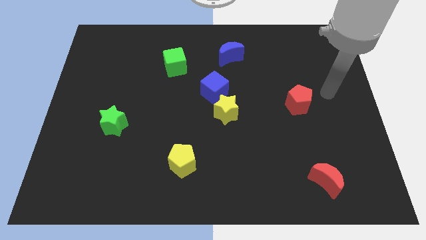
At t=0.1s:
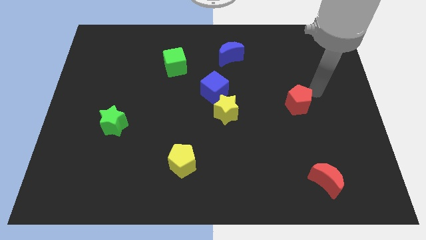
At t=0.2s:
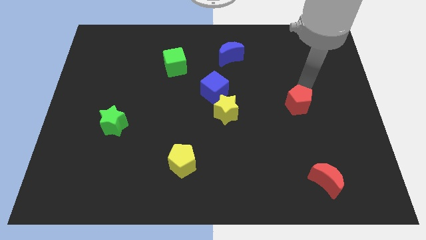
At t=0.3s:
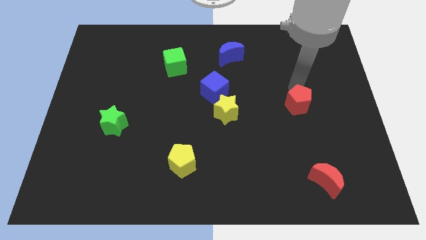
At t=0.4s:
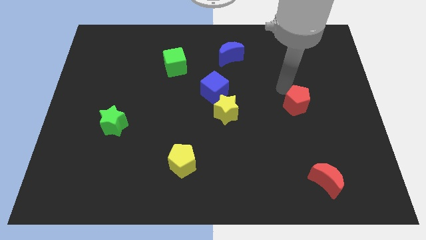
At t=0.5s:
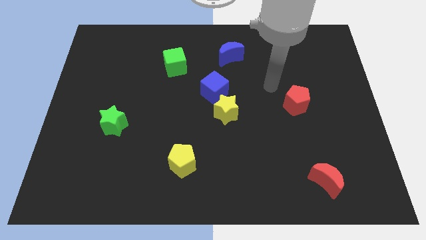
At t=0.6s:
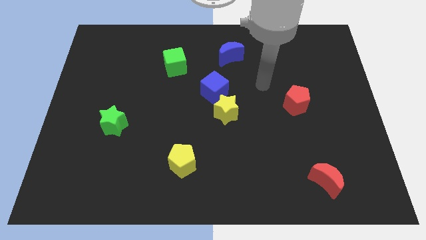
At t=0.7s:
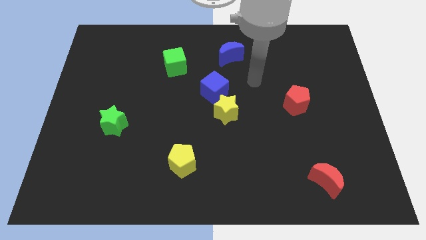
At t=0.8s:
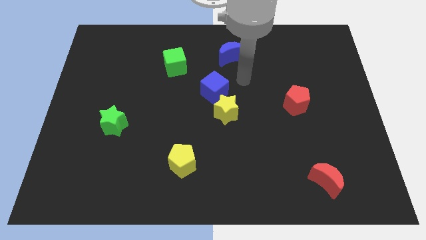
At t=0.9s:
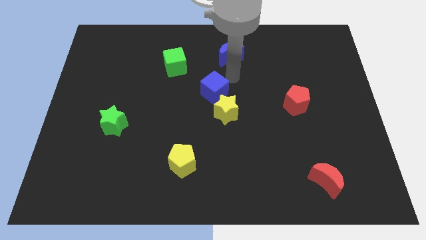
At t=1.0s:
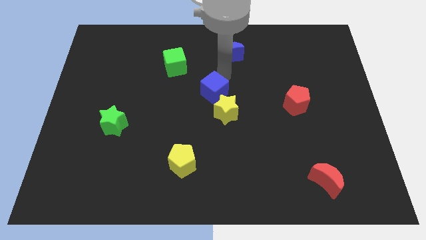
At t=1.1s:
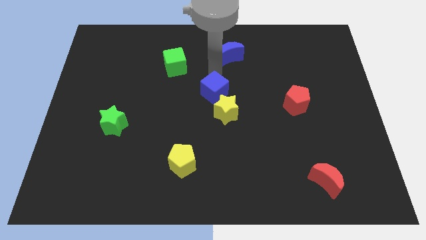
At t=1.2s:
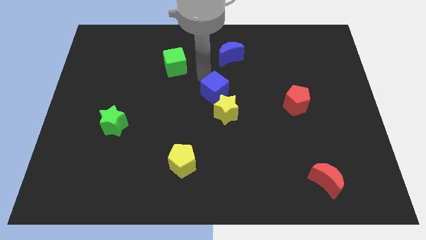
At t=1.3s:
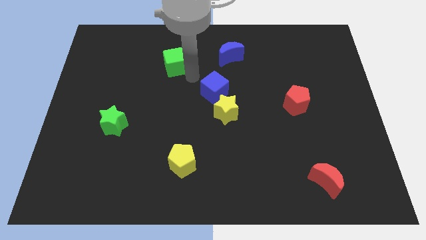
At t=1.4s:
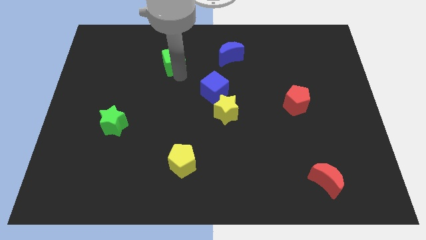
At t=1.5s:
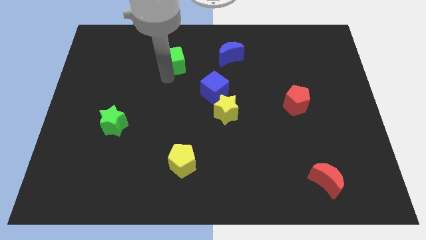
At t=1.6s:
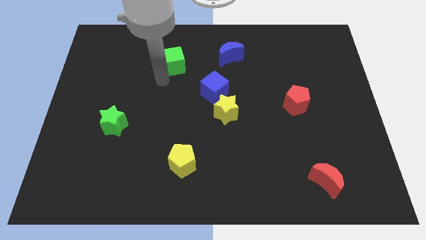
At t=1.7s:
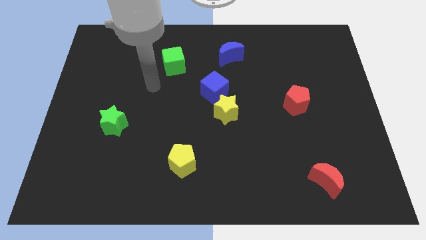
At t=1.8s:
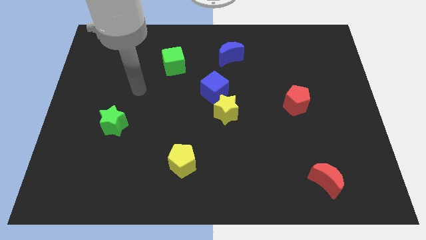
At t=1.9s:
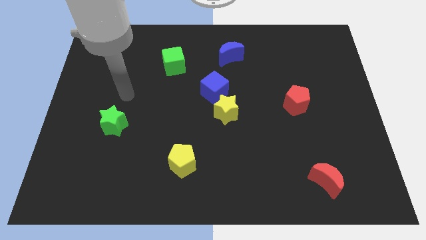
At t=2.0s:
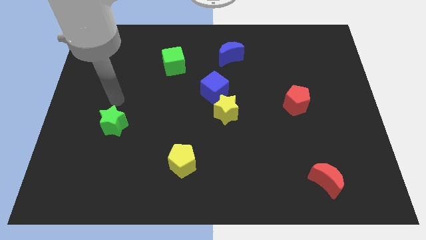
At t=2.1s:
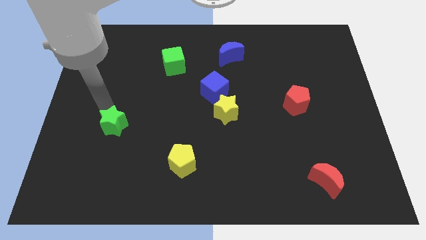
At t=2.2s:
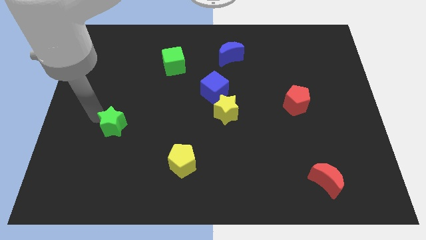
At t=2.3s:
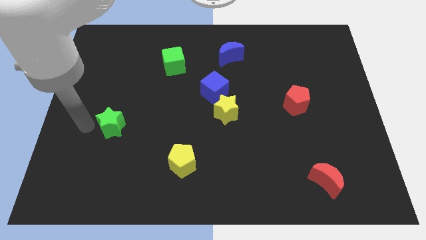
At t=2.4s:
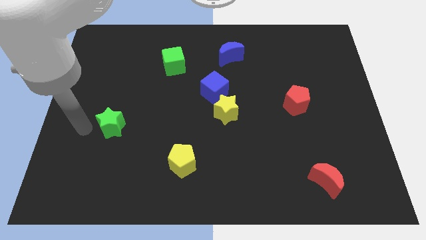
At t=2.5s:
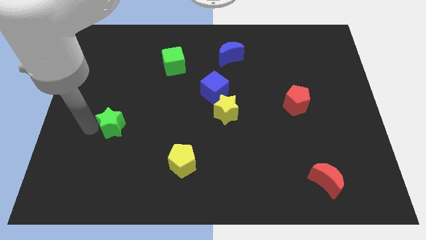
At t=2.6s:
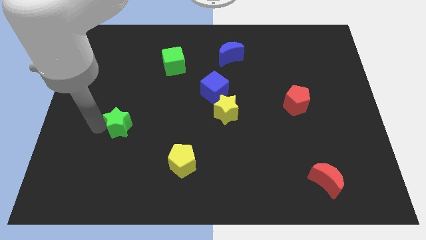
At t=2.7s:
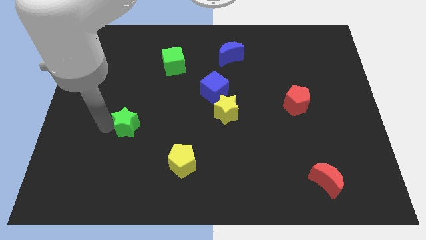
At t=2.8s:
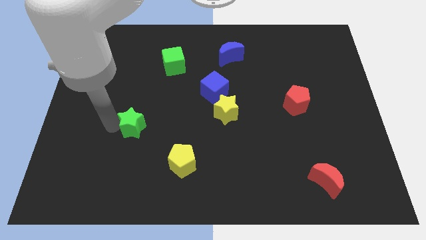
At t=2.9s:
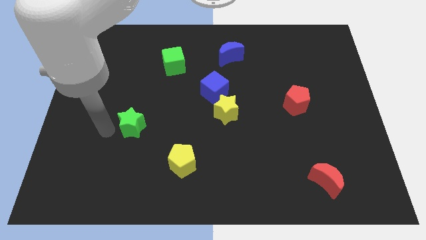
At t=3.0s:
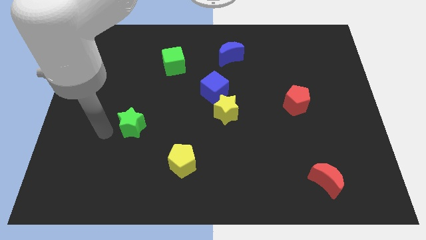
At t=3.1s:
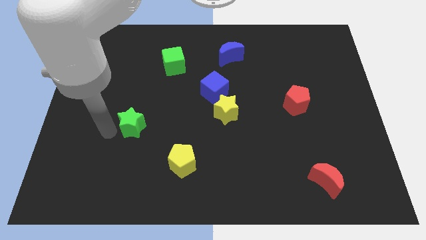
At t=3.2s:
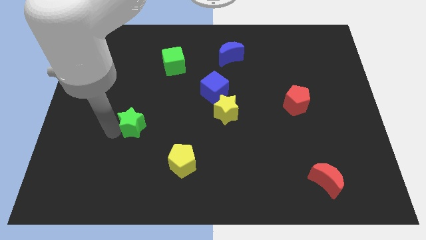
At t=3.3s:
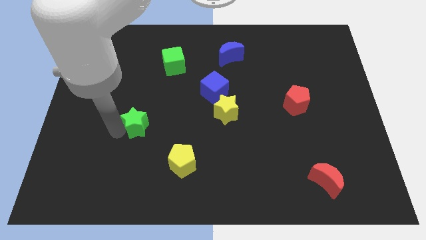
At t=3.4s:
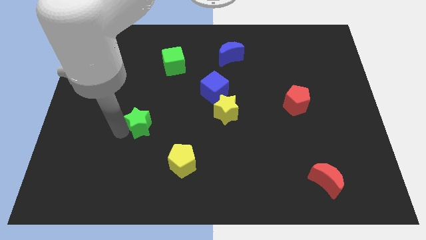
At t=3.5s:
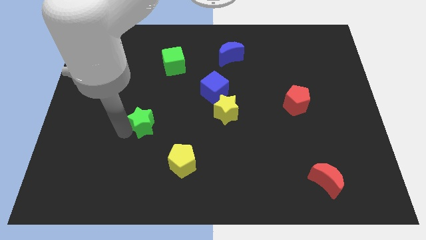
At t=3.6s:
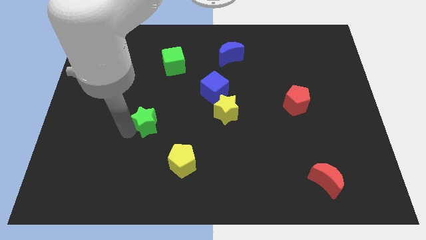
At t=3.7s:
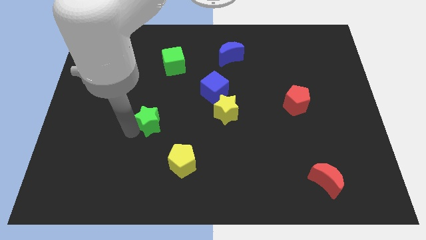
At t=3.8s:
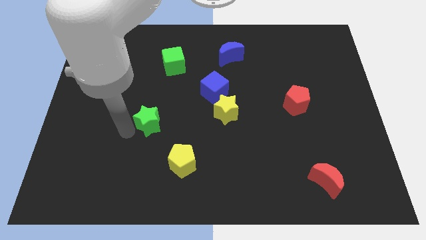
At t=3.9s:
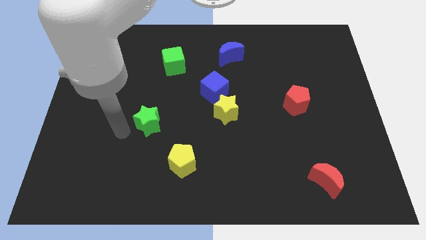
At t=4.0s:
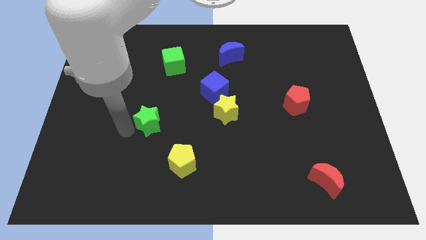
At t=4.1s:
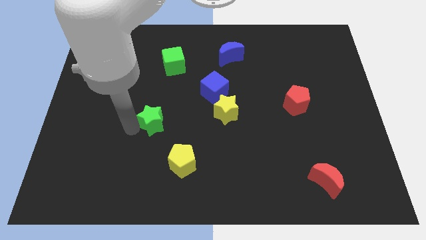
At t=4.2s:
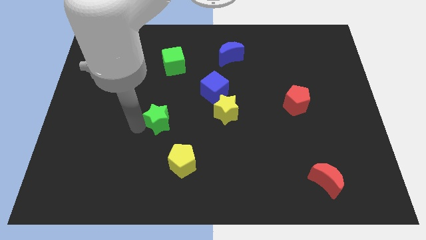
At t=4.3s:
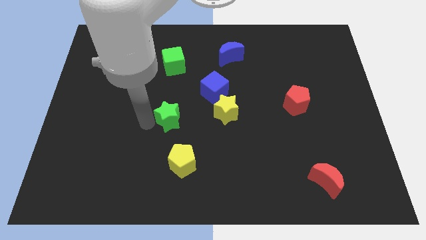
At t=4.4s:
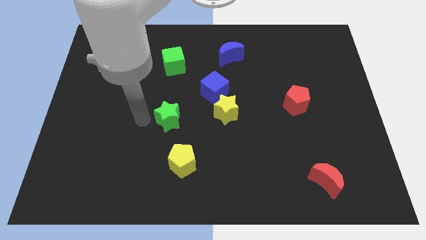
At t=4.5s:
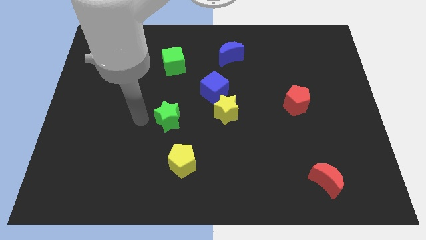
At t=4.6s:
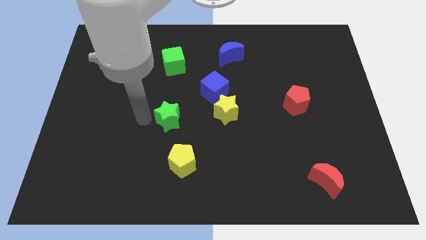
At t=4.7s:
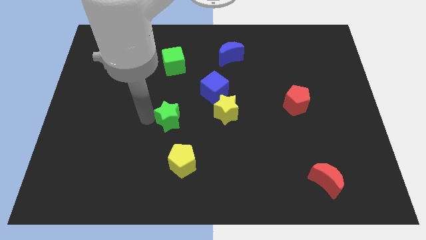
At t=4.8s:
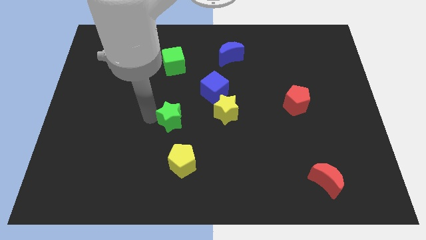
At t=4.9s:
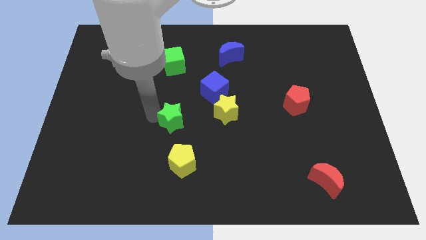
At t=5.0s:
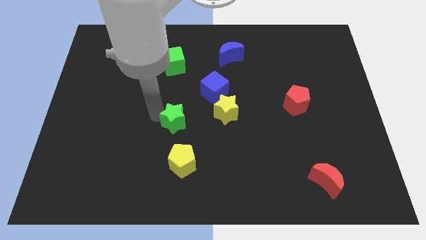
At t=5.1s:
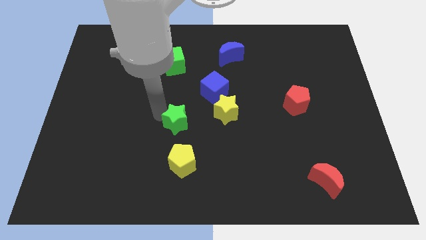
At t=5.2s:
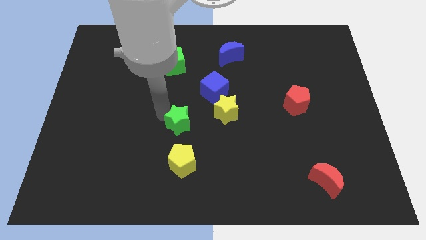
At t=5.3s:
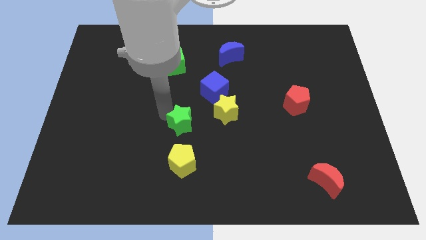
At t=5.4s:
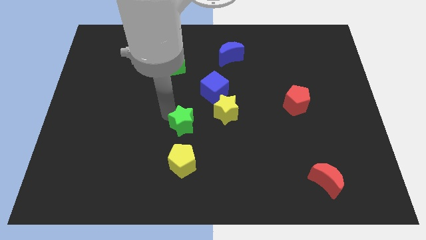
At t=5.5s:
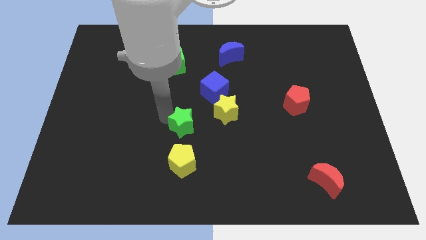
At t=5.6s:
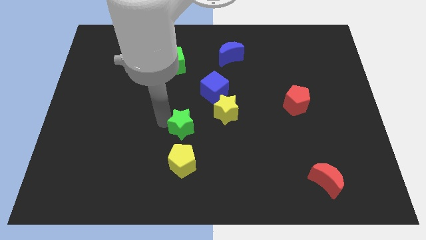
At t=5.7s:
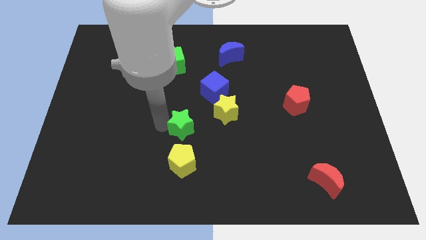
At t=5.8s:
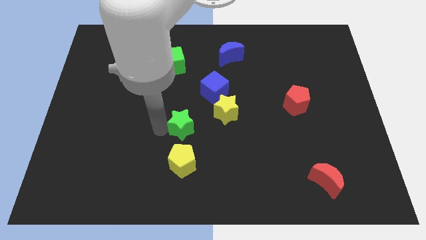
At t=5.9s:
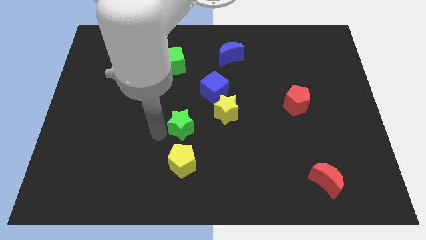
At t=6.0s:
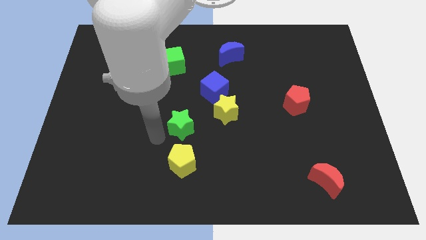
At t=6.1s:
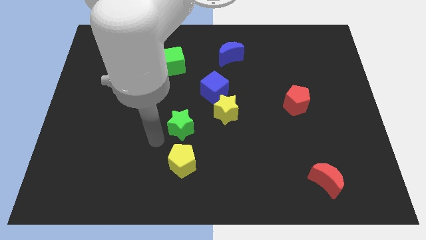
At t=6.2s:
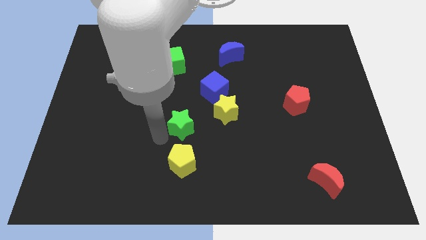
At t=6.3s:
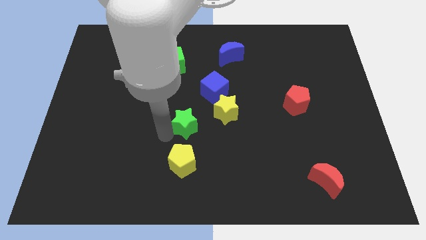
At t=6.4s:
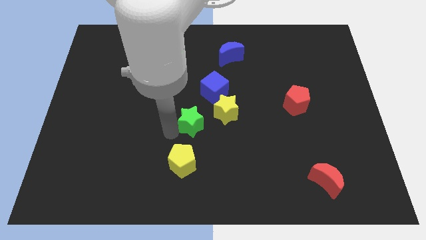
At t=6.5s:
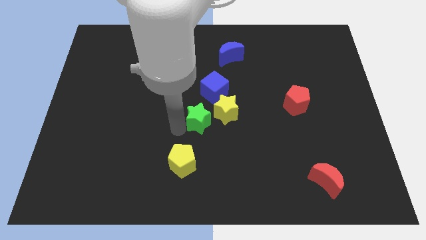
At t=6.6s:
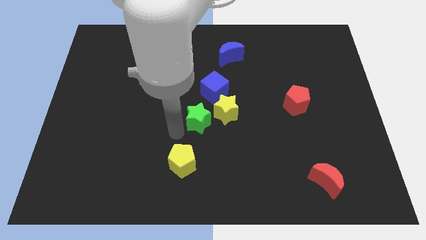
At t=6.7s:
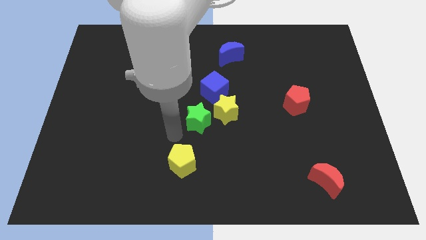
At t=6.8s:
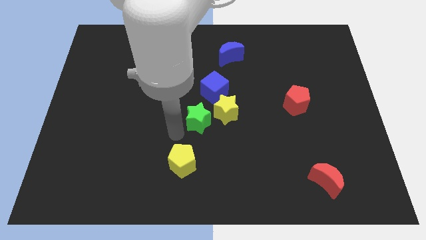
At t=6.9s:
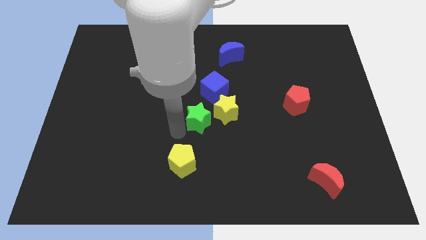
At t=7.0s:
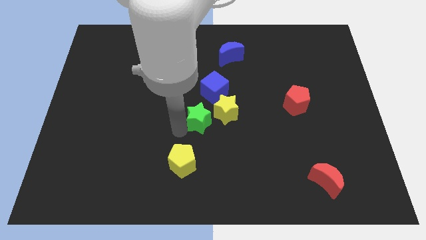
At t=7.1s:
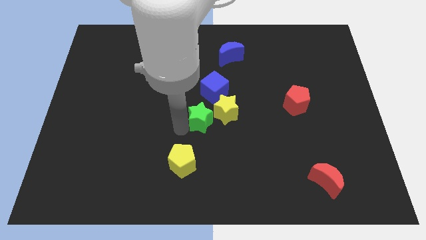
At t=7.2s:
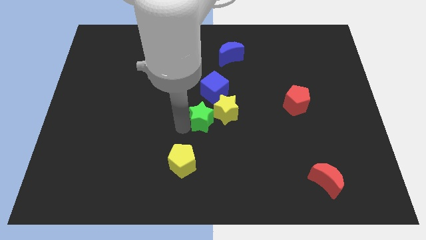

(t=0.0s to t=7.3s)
put the green star to the yellow star
